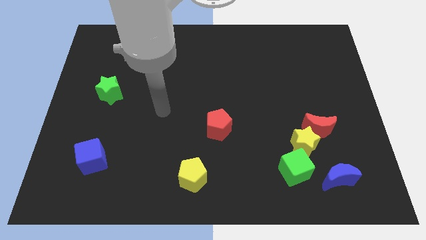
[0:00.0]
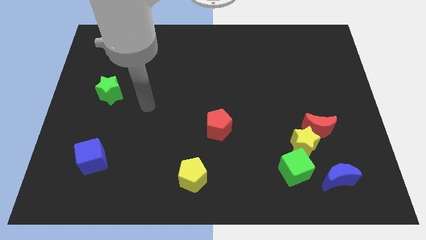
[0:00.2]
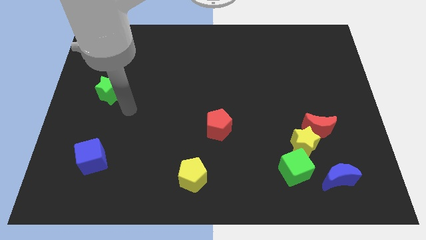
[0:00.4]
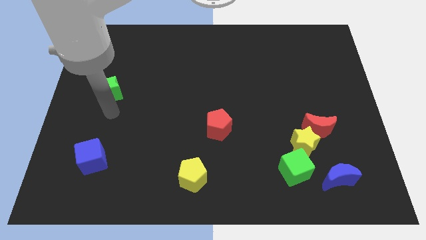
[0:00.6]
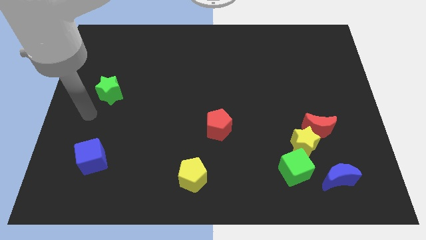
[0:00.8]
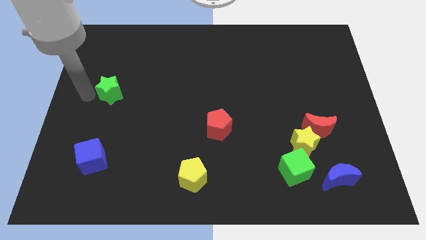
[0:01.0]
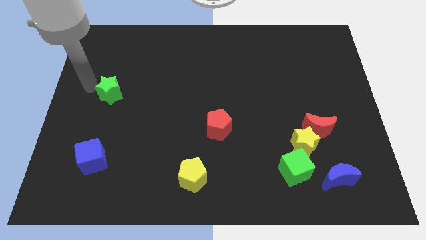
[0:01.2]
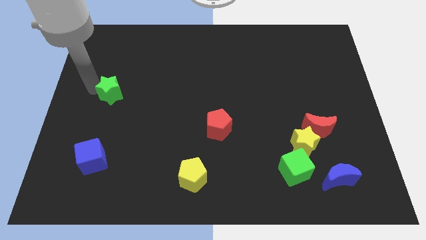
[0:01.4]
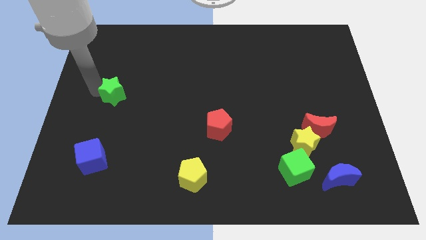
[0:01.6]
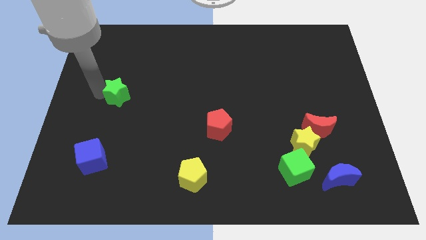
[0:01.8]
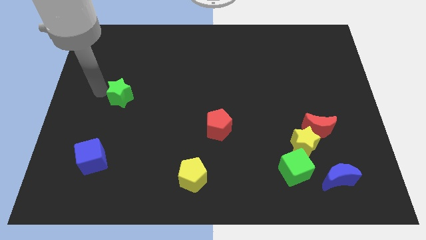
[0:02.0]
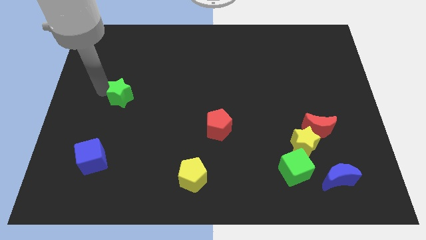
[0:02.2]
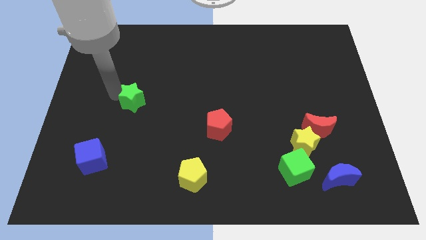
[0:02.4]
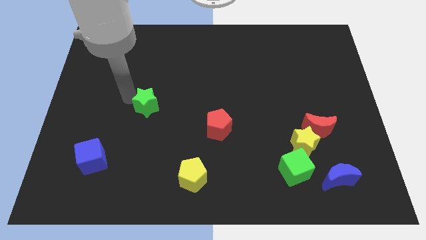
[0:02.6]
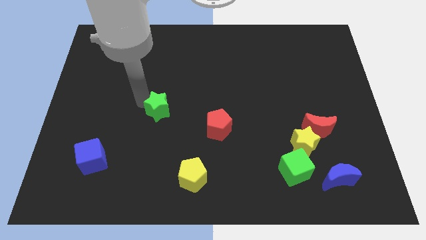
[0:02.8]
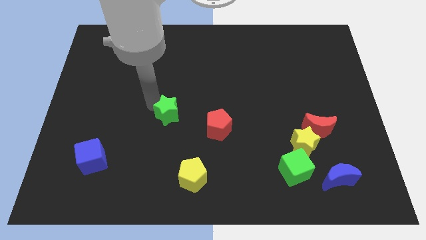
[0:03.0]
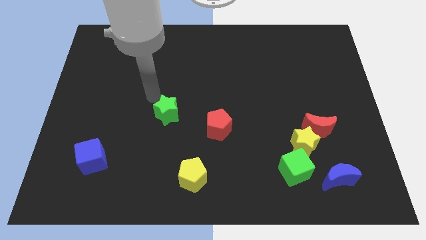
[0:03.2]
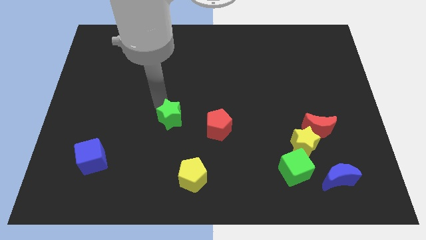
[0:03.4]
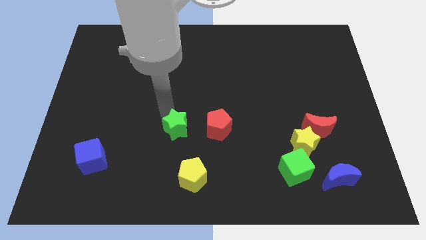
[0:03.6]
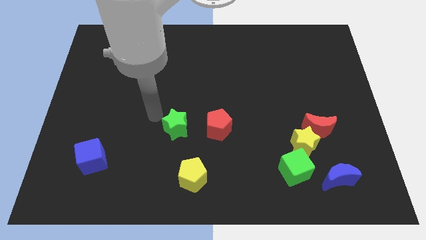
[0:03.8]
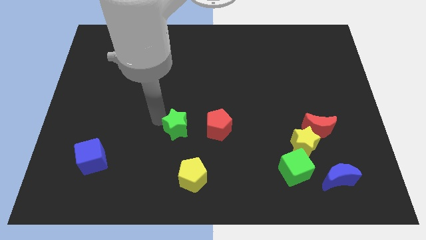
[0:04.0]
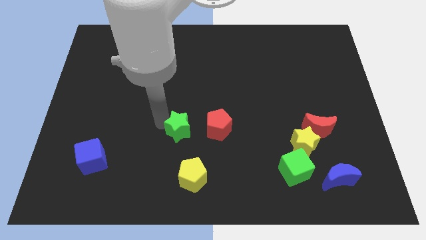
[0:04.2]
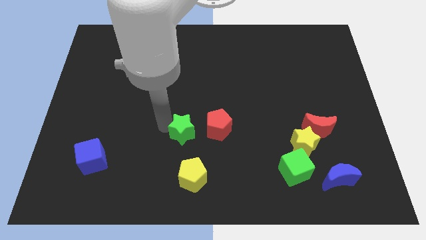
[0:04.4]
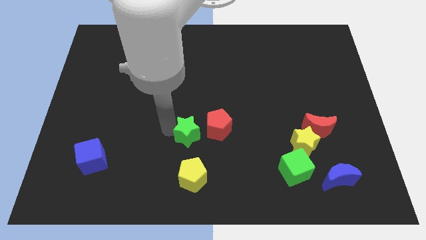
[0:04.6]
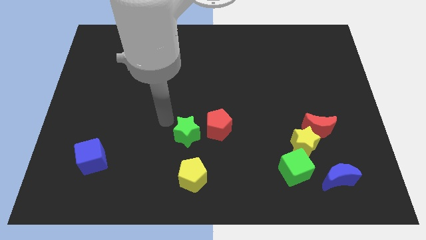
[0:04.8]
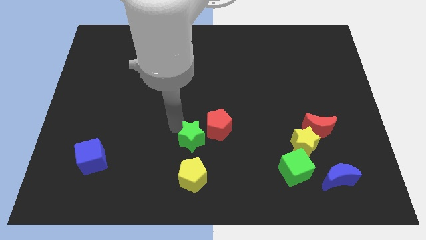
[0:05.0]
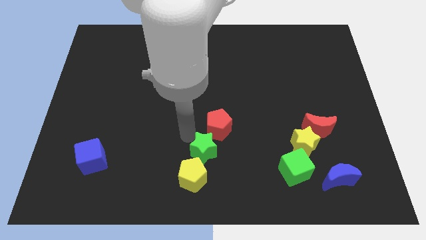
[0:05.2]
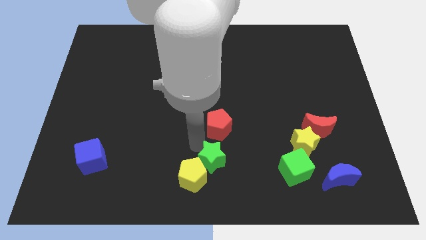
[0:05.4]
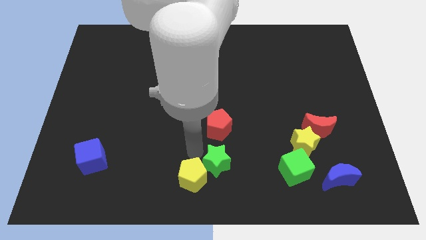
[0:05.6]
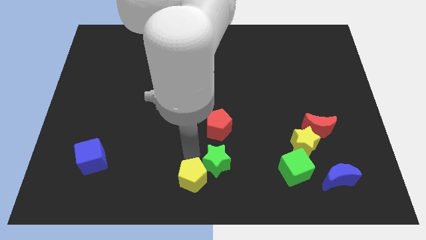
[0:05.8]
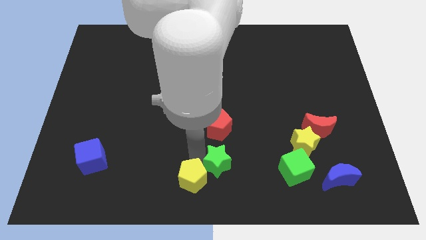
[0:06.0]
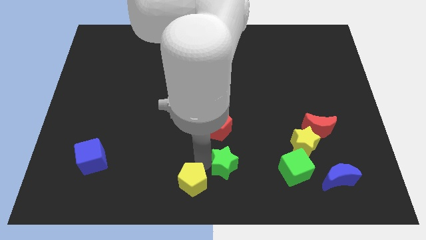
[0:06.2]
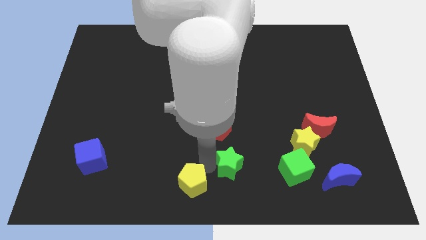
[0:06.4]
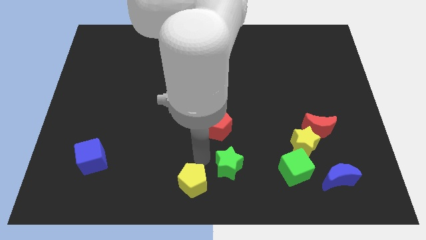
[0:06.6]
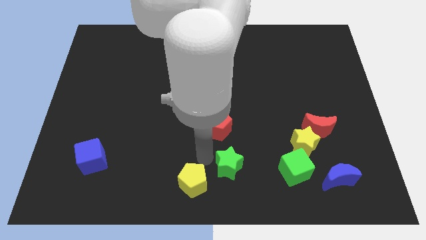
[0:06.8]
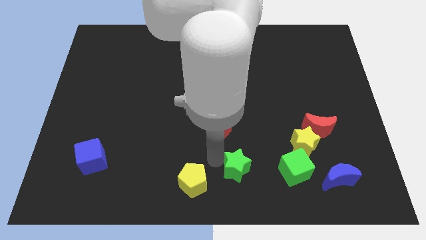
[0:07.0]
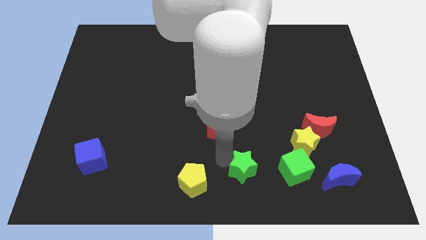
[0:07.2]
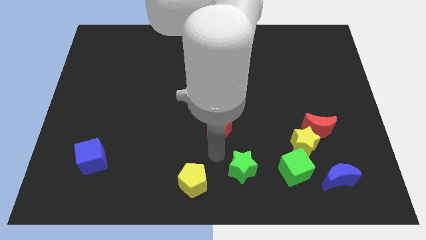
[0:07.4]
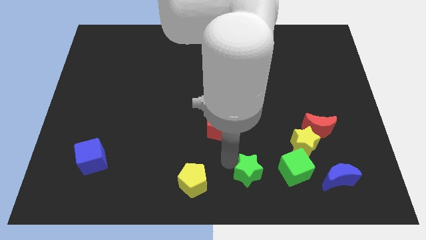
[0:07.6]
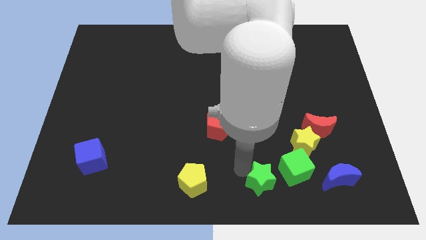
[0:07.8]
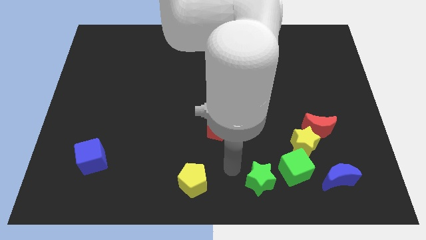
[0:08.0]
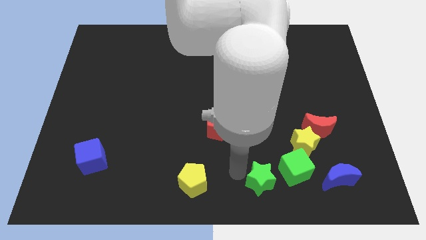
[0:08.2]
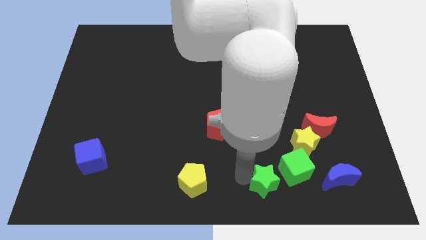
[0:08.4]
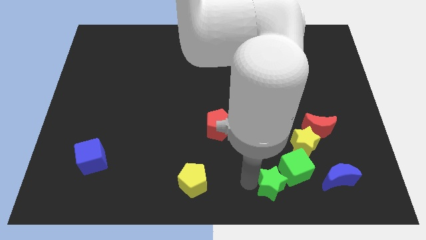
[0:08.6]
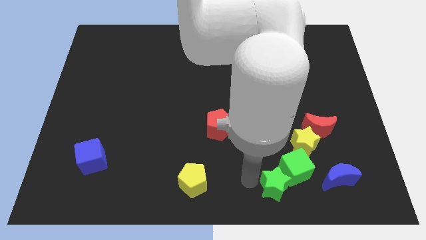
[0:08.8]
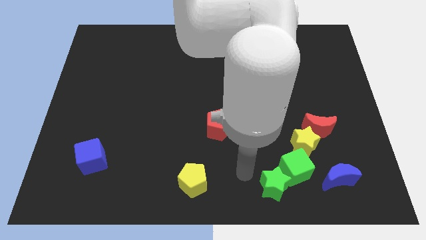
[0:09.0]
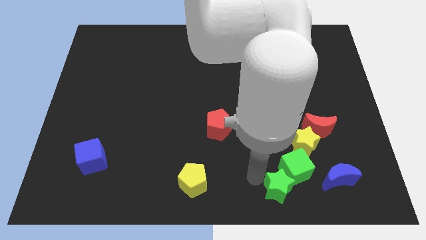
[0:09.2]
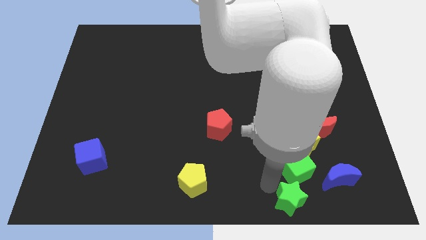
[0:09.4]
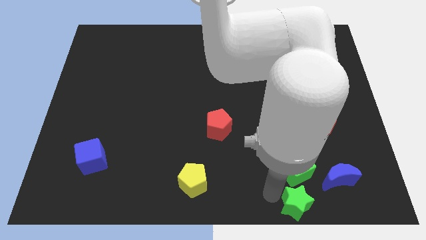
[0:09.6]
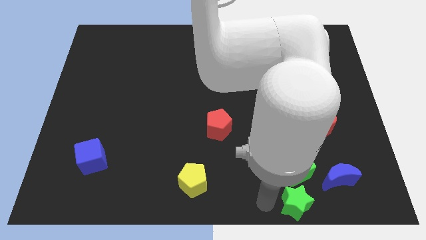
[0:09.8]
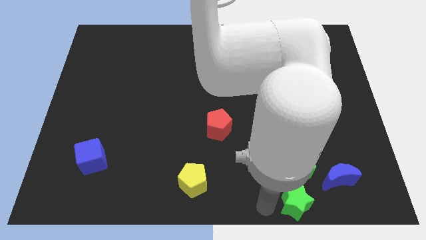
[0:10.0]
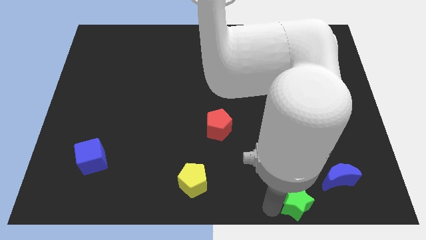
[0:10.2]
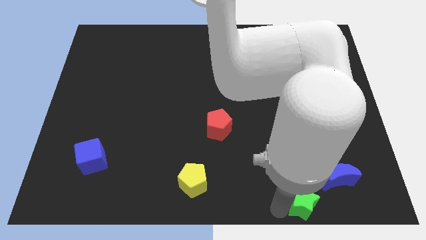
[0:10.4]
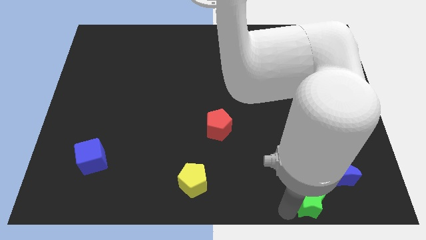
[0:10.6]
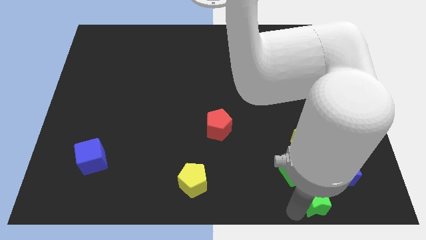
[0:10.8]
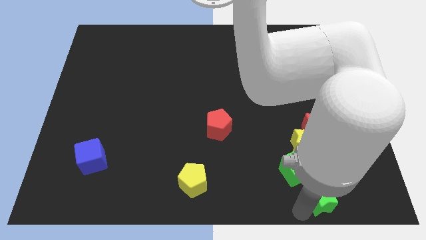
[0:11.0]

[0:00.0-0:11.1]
slide the green star next to the blue moon

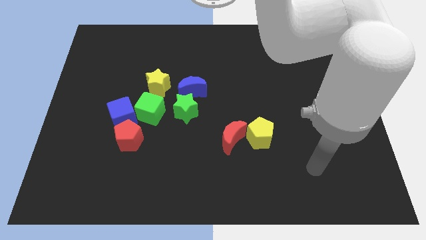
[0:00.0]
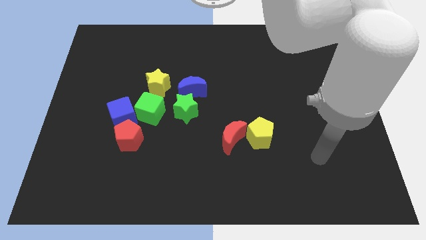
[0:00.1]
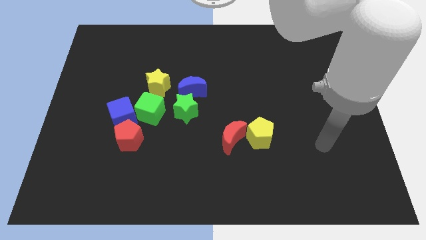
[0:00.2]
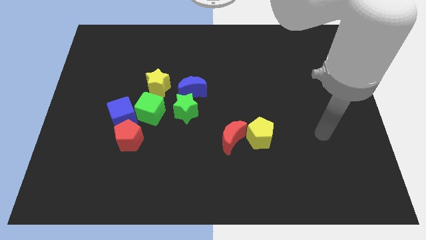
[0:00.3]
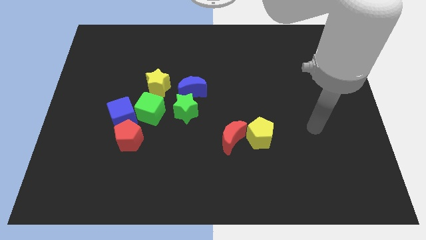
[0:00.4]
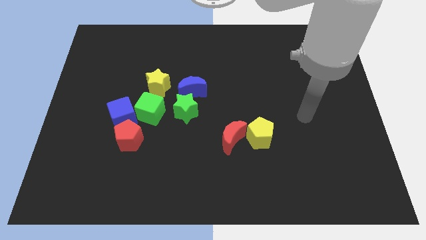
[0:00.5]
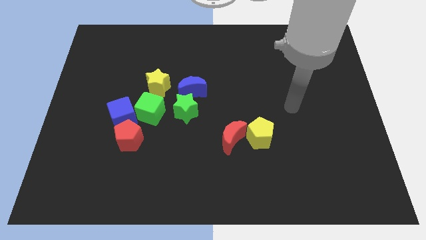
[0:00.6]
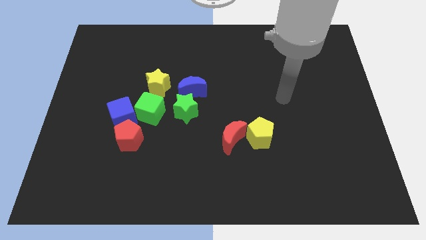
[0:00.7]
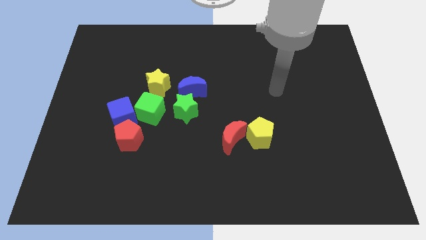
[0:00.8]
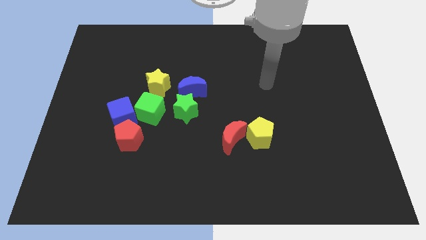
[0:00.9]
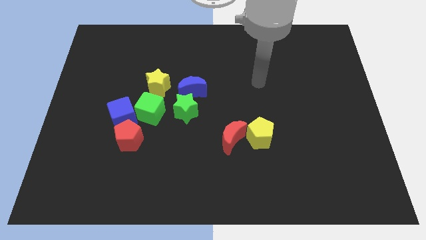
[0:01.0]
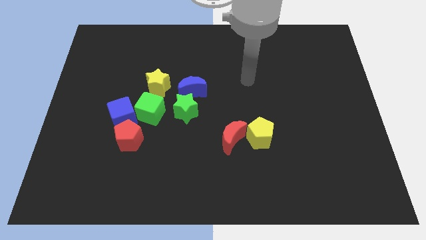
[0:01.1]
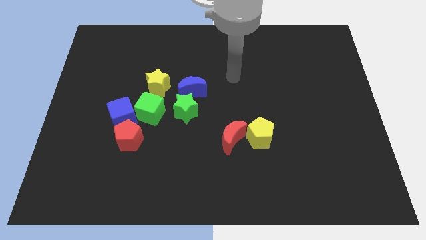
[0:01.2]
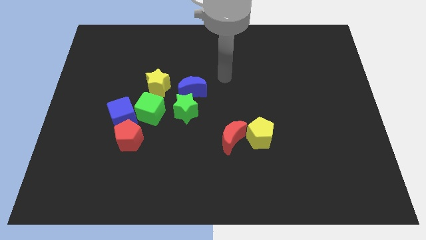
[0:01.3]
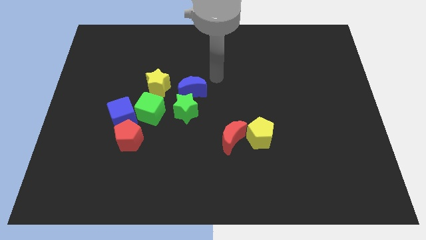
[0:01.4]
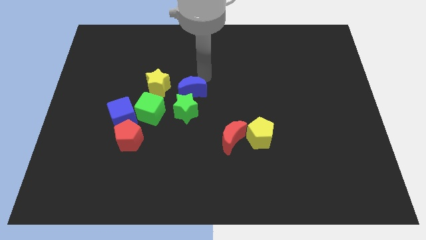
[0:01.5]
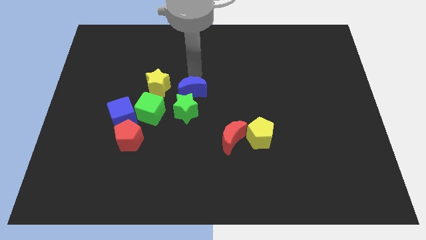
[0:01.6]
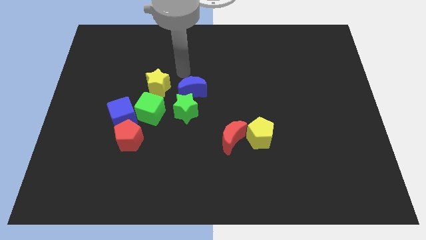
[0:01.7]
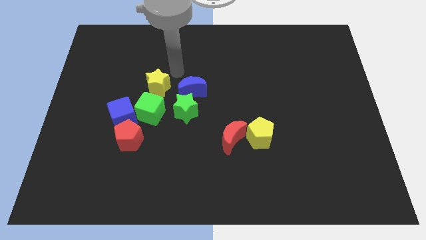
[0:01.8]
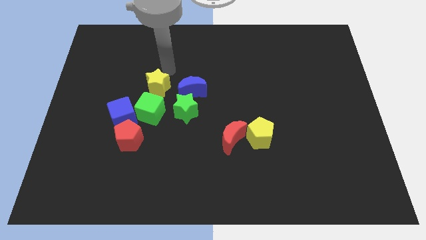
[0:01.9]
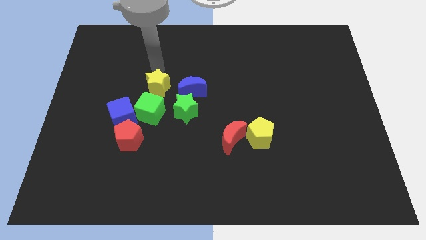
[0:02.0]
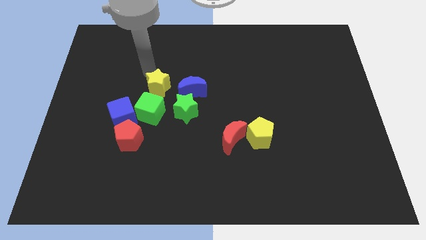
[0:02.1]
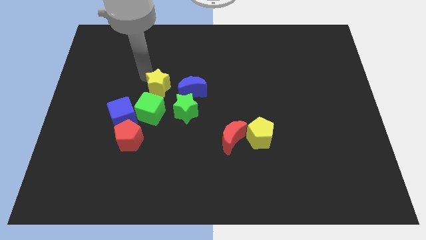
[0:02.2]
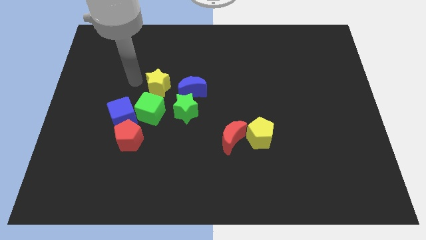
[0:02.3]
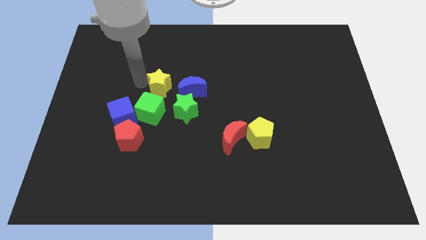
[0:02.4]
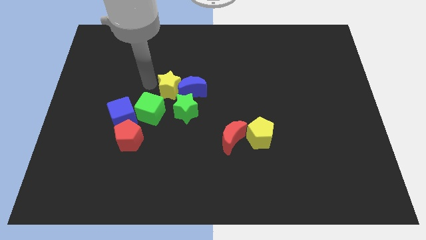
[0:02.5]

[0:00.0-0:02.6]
push the yellow star towards the blue moon
